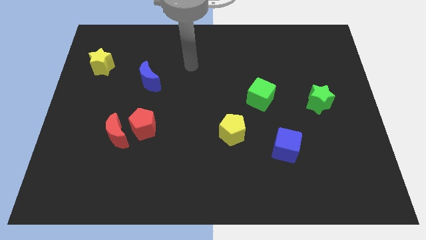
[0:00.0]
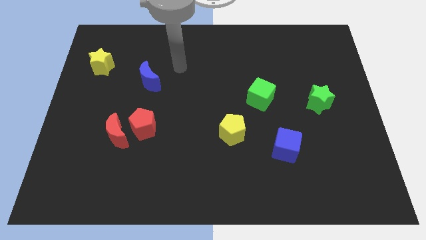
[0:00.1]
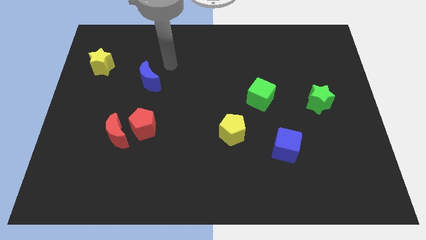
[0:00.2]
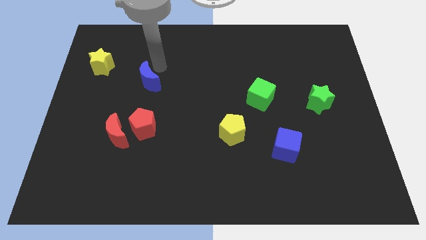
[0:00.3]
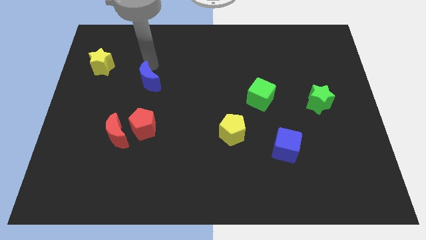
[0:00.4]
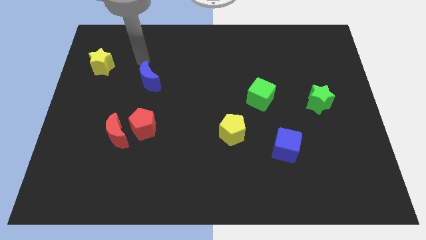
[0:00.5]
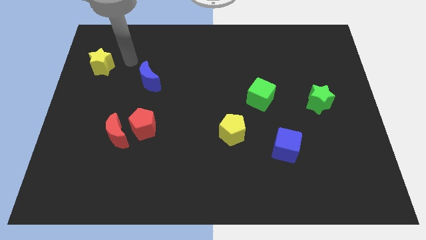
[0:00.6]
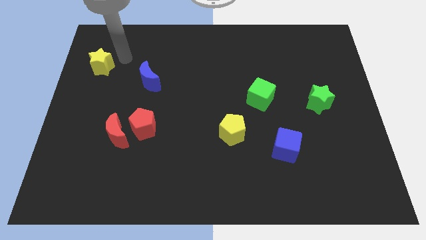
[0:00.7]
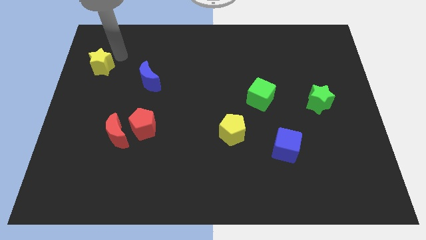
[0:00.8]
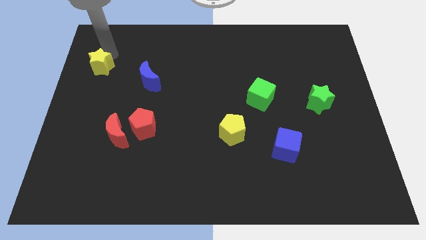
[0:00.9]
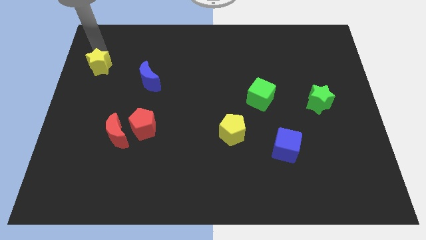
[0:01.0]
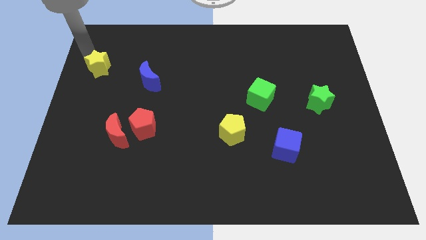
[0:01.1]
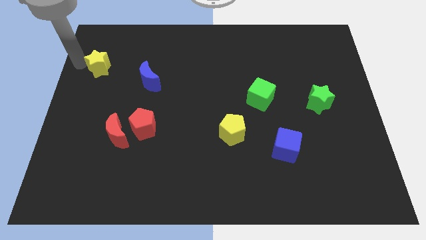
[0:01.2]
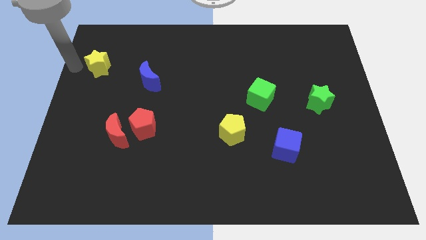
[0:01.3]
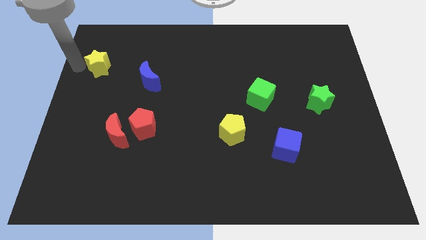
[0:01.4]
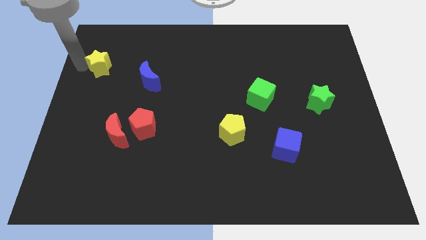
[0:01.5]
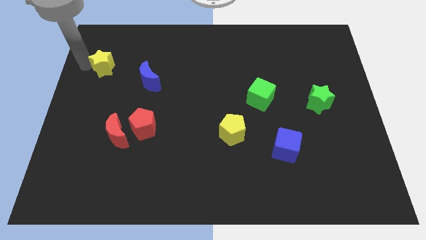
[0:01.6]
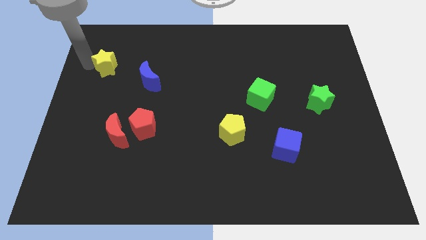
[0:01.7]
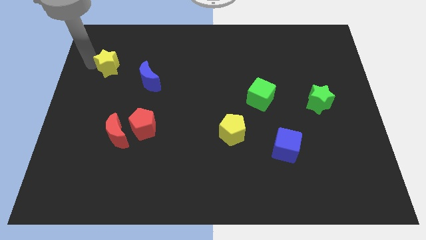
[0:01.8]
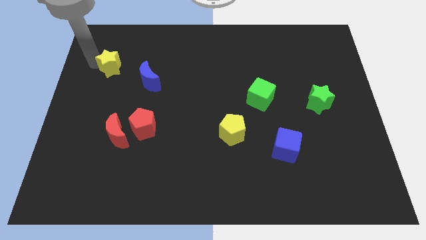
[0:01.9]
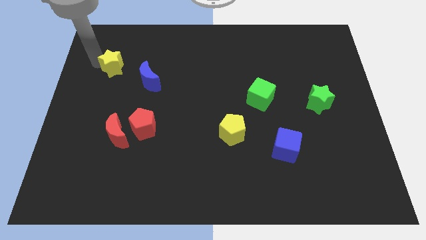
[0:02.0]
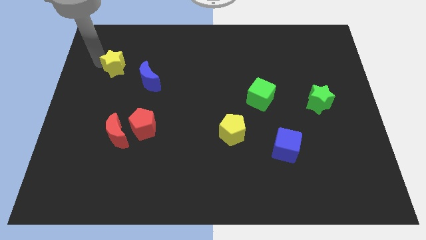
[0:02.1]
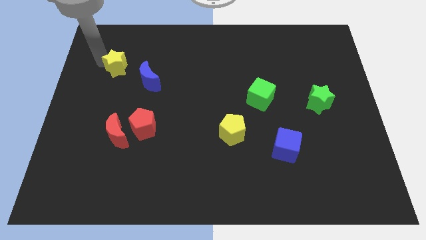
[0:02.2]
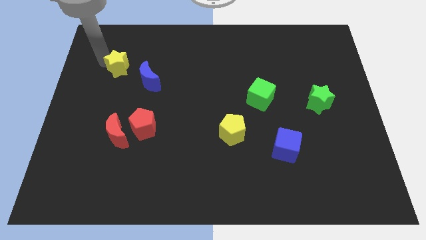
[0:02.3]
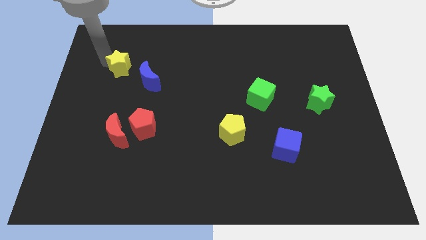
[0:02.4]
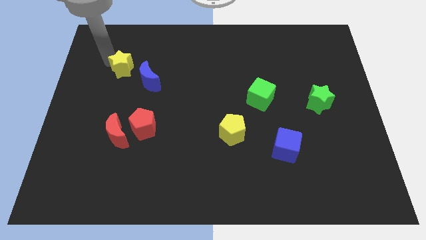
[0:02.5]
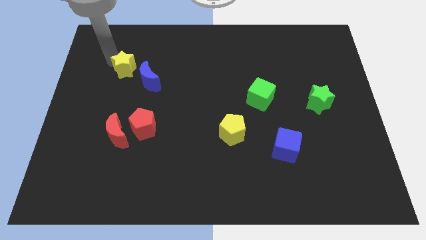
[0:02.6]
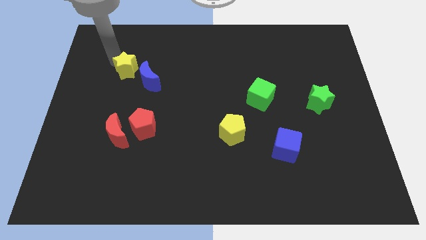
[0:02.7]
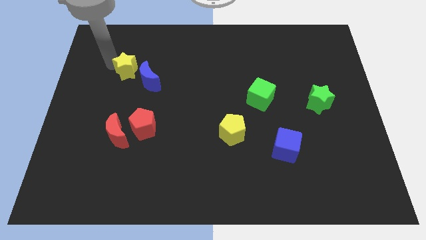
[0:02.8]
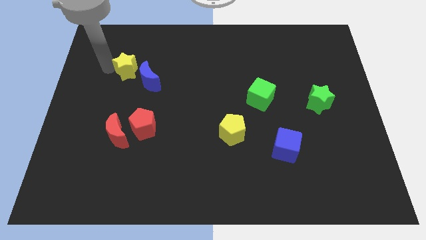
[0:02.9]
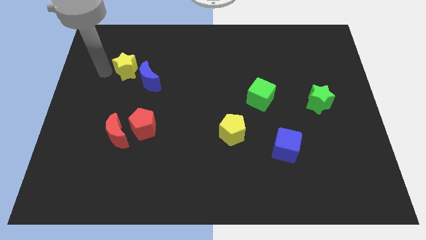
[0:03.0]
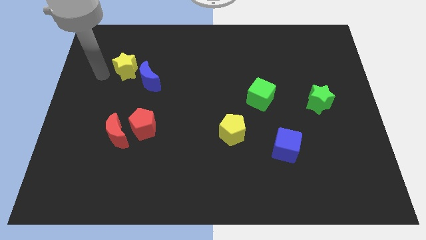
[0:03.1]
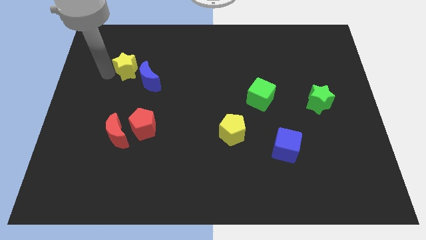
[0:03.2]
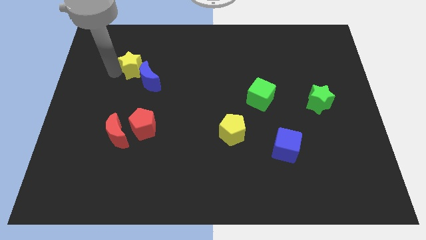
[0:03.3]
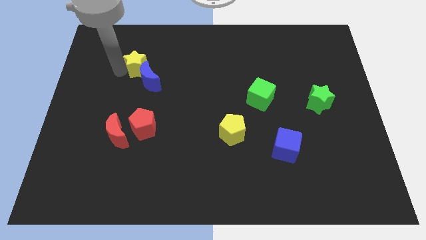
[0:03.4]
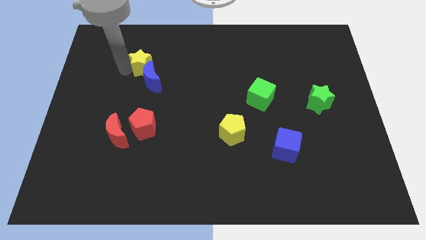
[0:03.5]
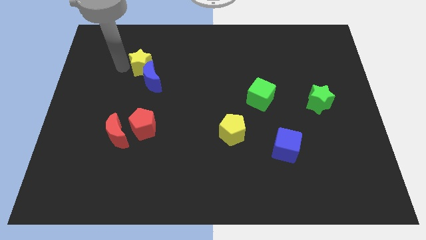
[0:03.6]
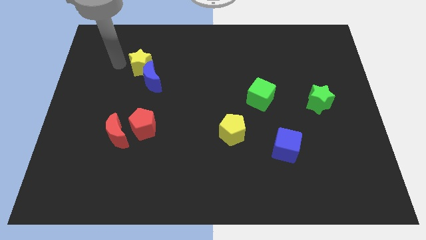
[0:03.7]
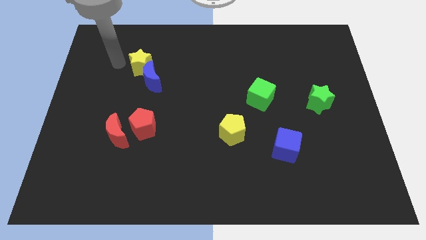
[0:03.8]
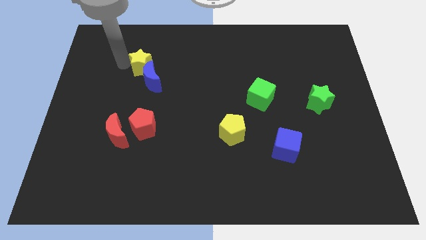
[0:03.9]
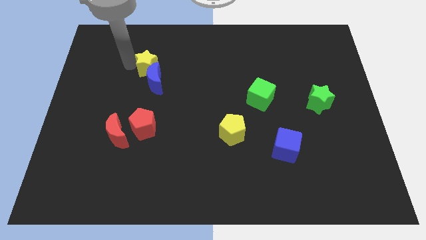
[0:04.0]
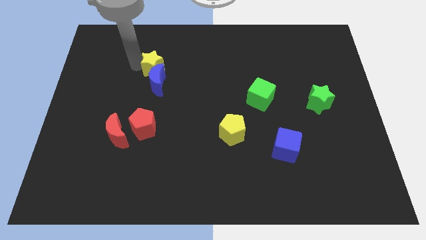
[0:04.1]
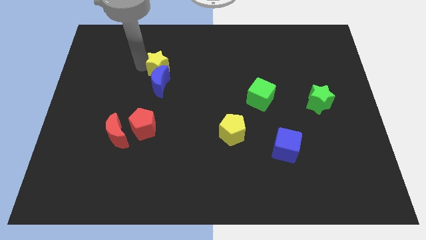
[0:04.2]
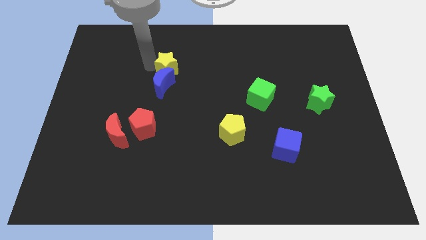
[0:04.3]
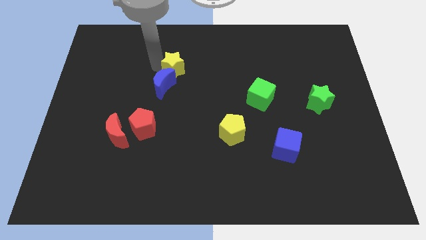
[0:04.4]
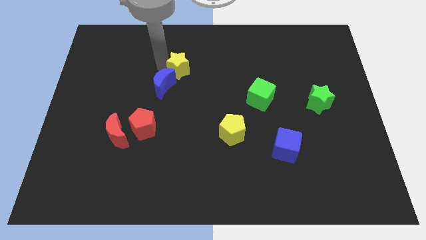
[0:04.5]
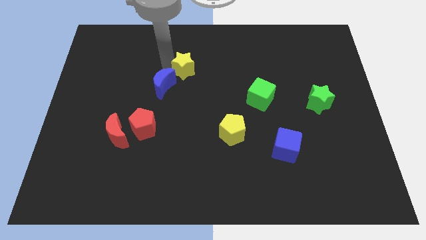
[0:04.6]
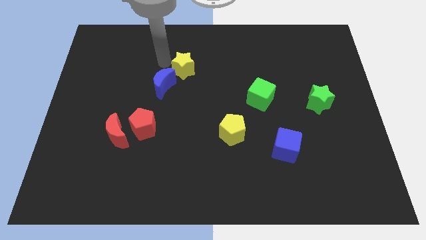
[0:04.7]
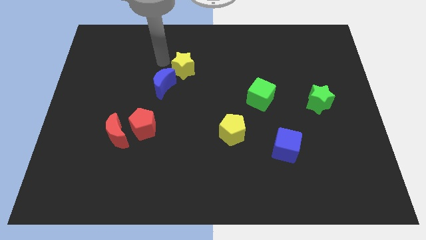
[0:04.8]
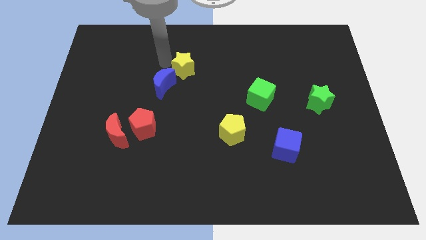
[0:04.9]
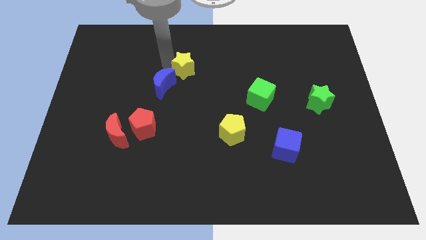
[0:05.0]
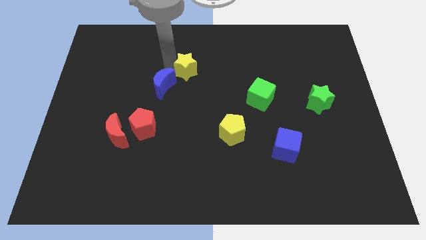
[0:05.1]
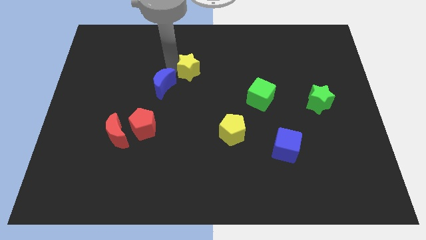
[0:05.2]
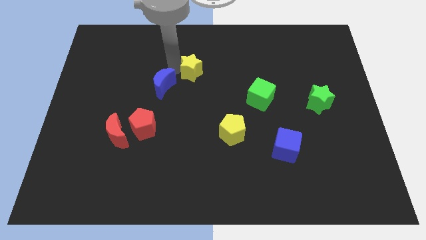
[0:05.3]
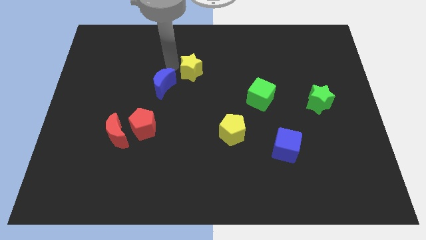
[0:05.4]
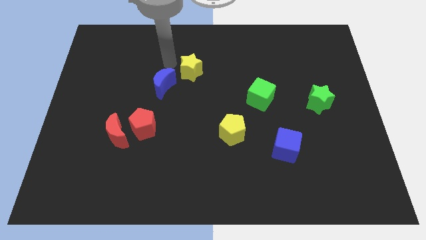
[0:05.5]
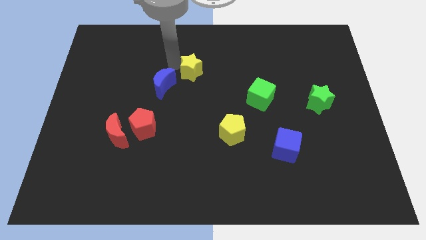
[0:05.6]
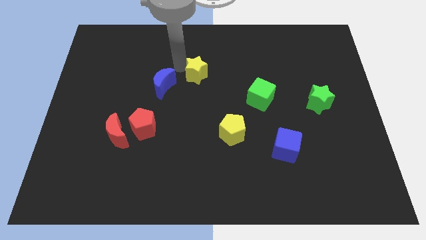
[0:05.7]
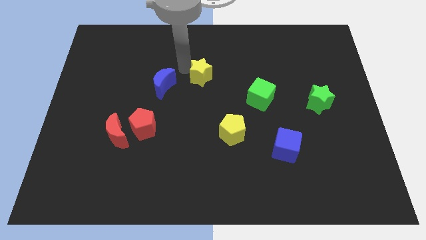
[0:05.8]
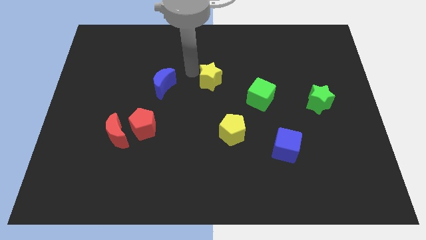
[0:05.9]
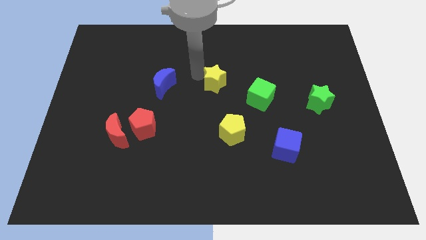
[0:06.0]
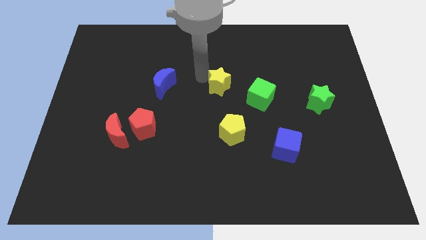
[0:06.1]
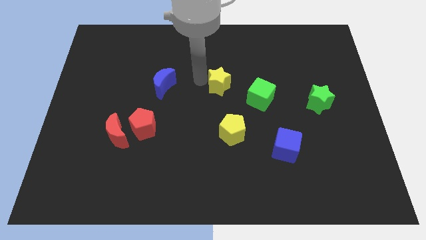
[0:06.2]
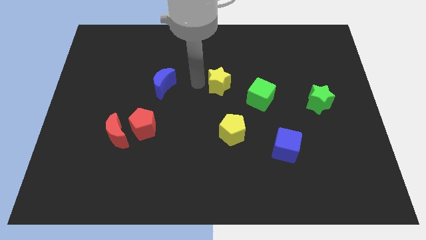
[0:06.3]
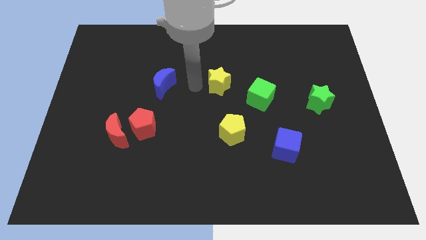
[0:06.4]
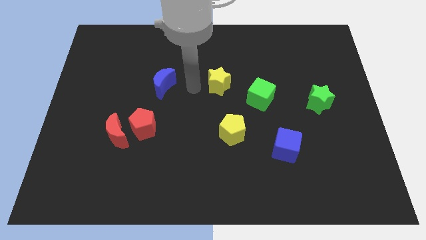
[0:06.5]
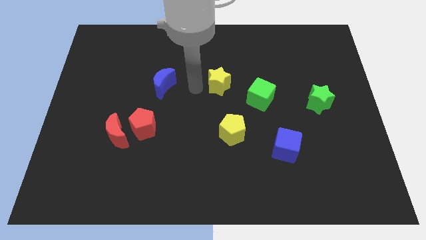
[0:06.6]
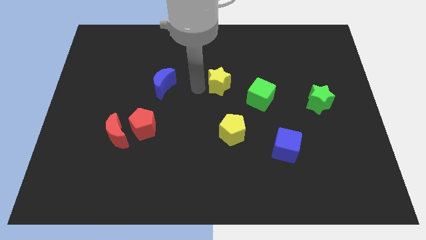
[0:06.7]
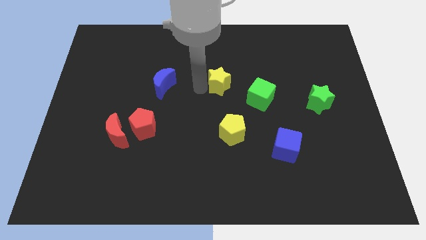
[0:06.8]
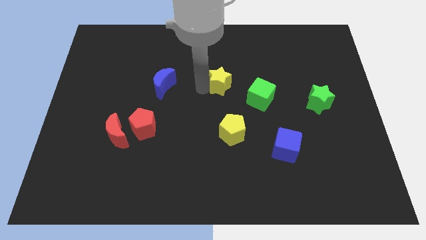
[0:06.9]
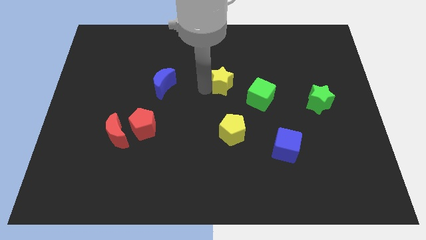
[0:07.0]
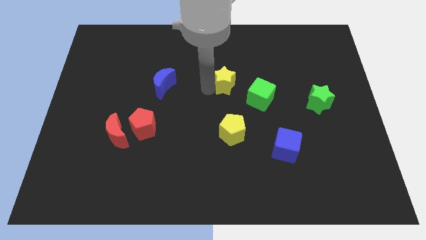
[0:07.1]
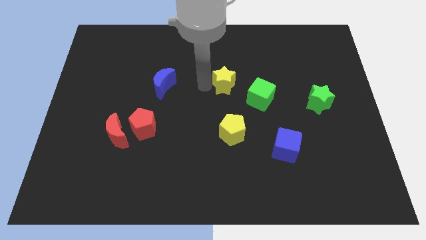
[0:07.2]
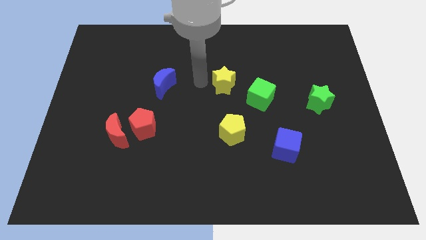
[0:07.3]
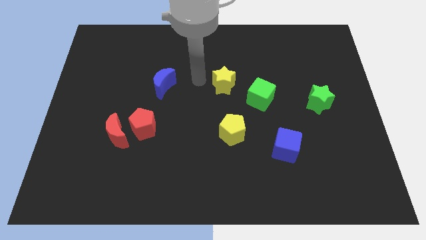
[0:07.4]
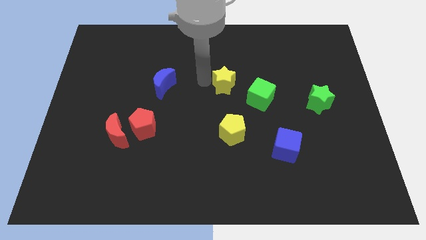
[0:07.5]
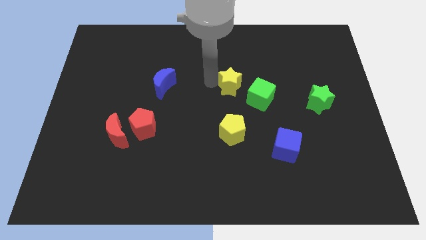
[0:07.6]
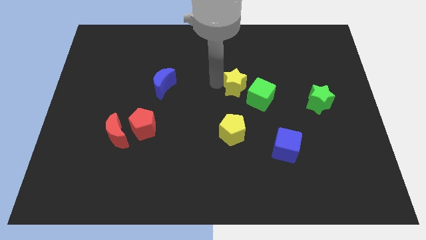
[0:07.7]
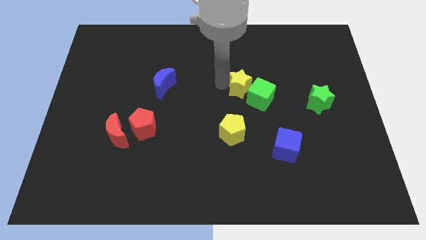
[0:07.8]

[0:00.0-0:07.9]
slide the yellow star close to the green cube
